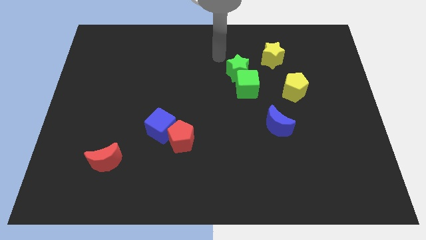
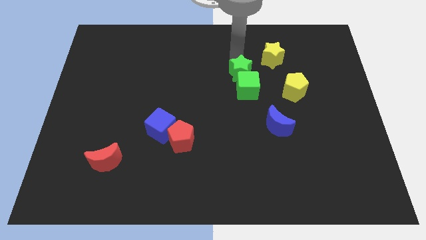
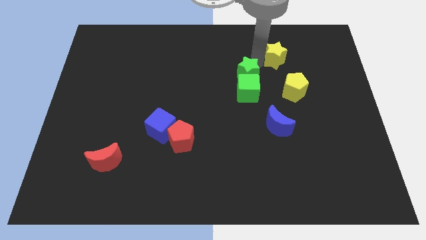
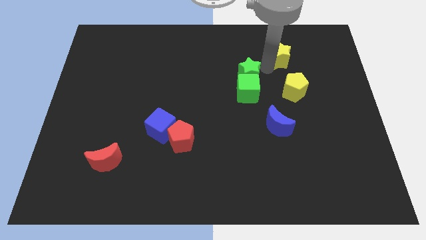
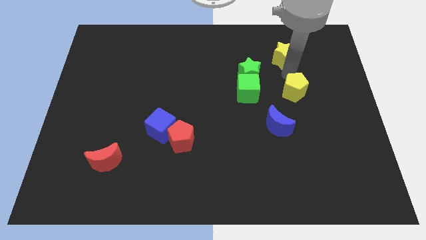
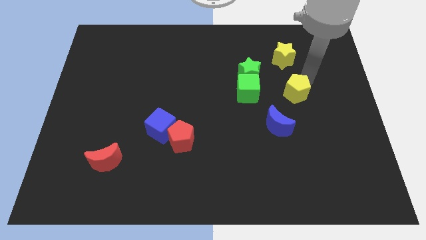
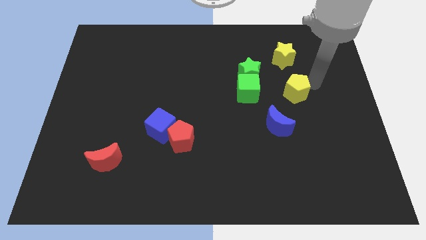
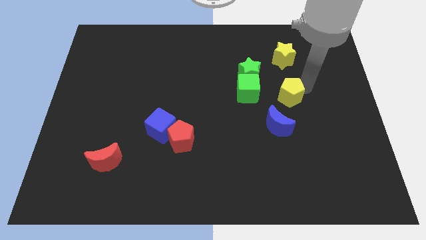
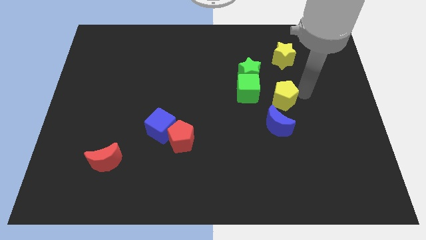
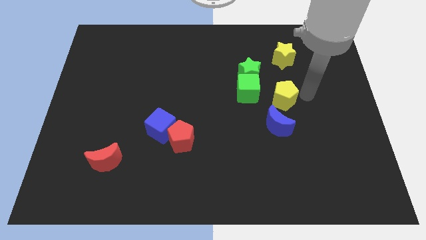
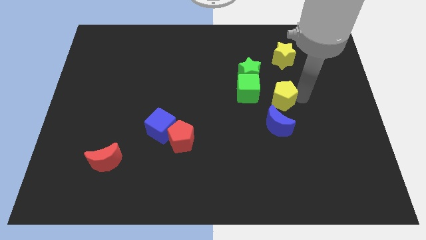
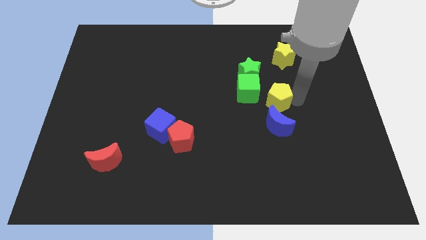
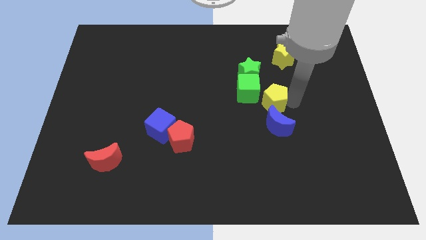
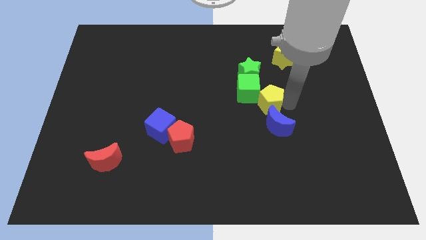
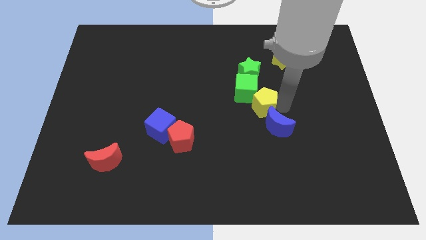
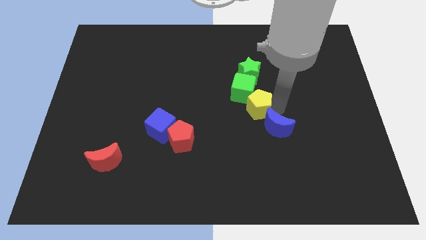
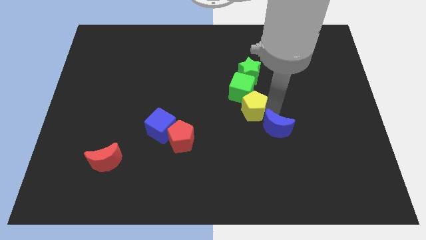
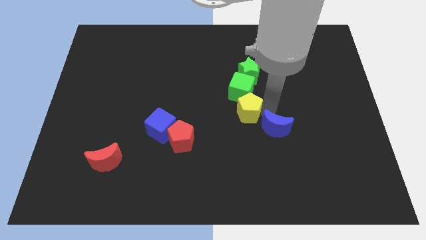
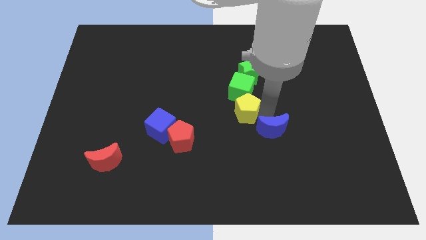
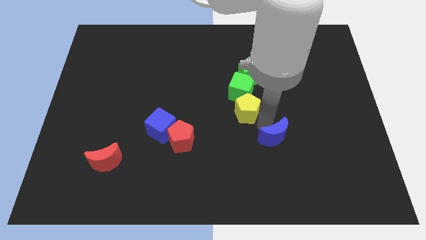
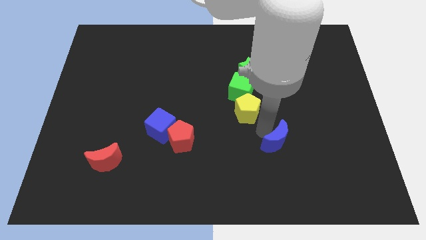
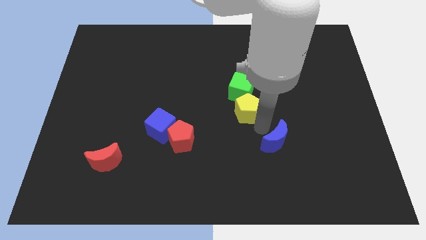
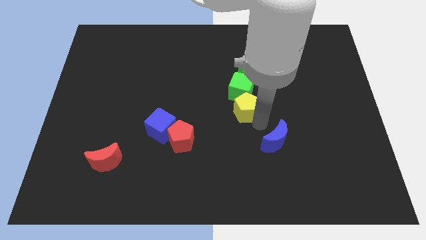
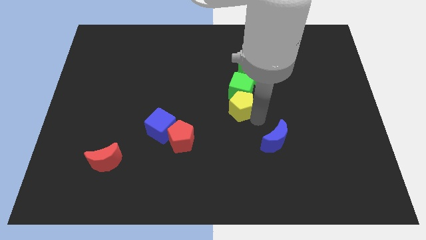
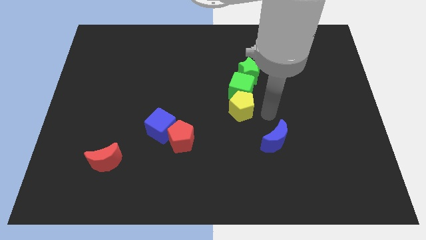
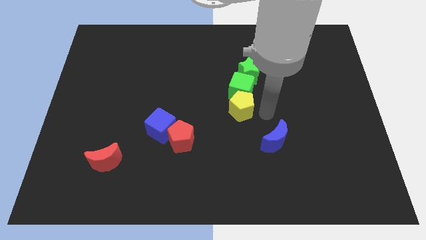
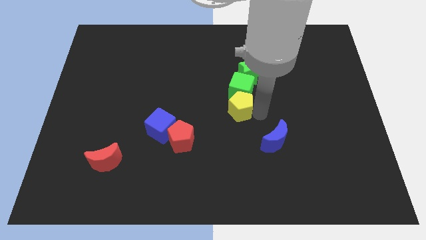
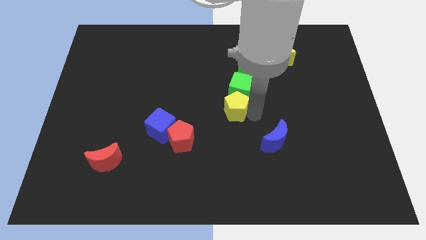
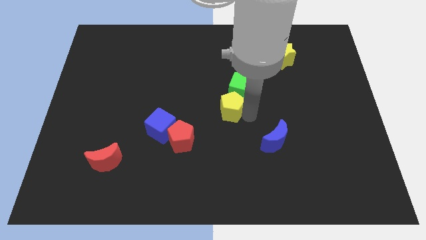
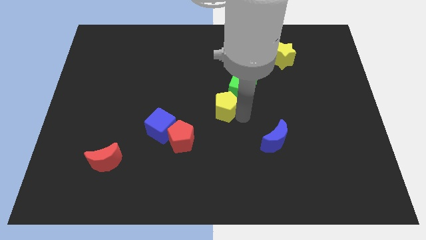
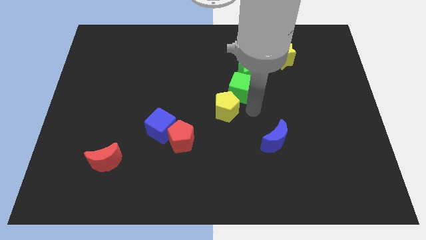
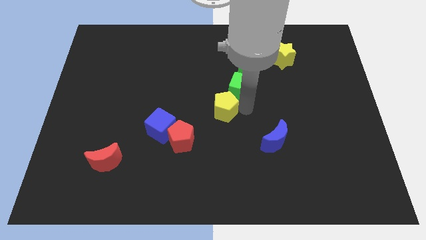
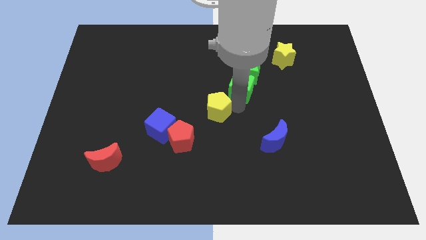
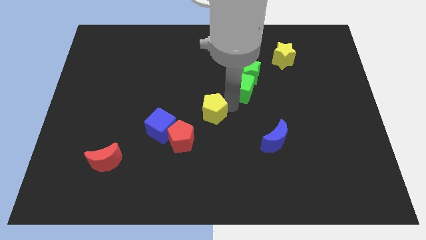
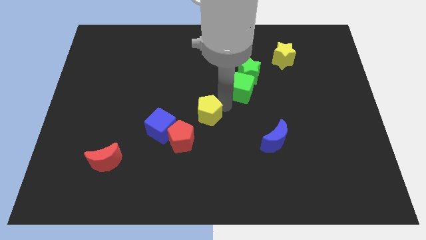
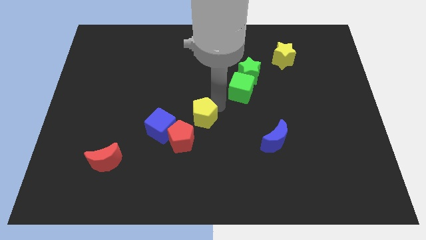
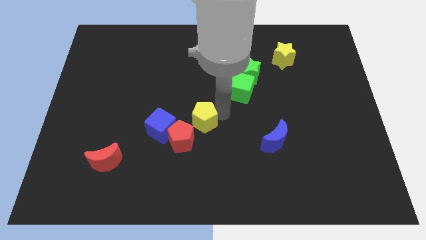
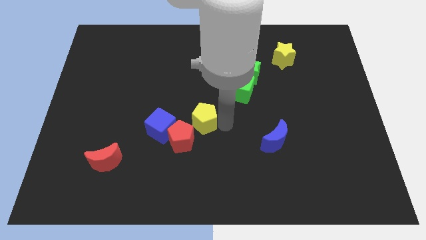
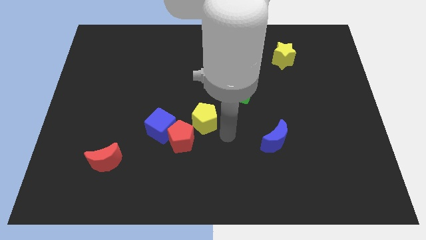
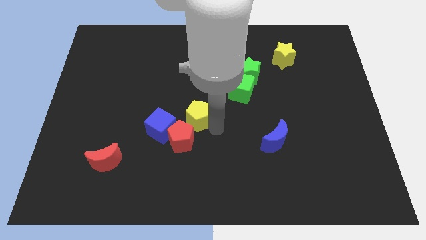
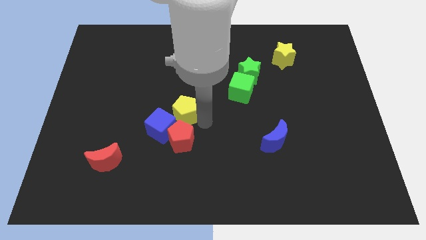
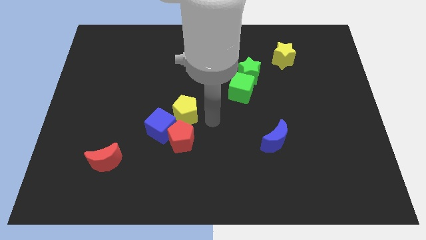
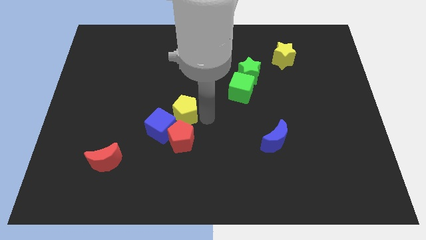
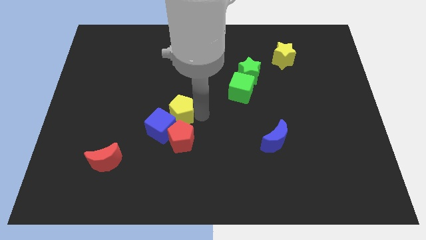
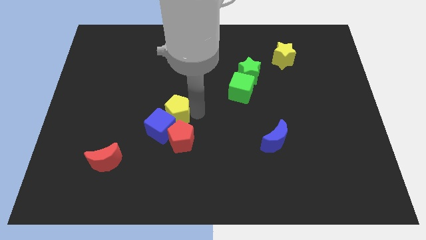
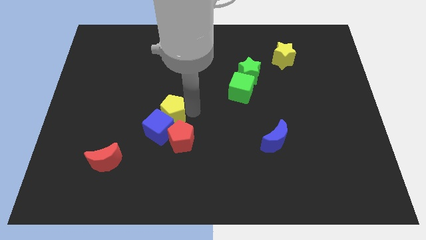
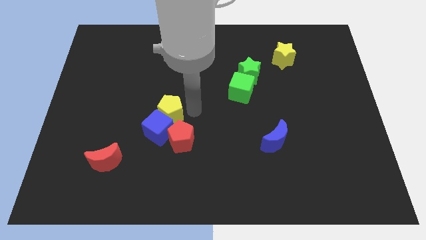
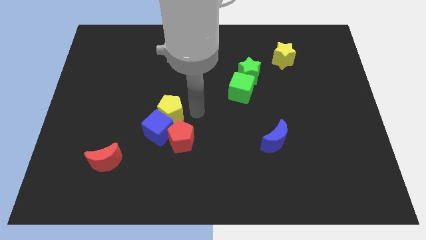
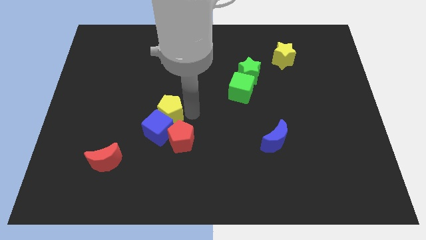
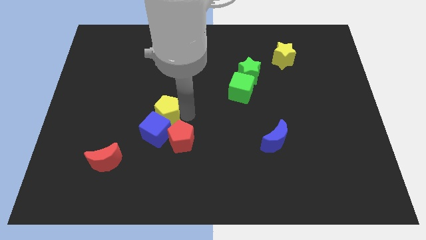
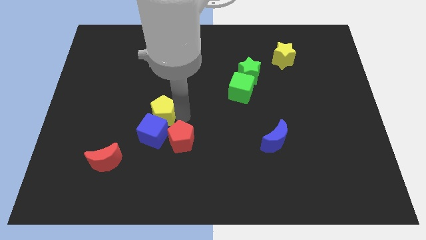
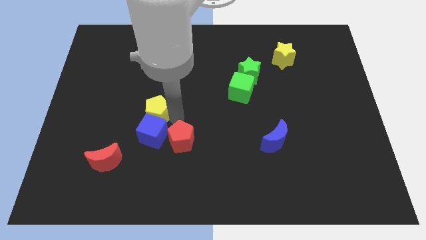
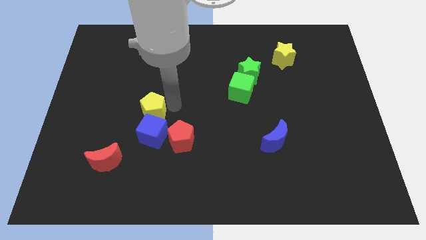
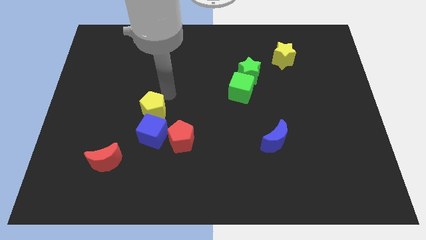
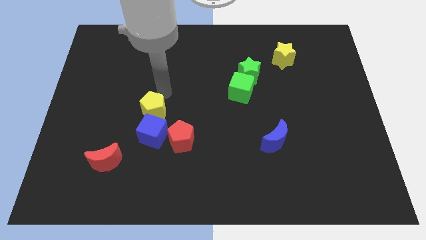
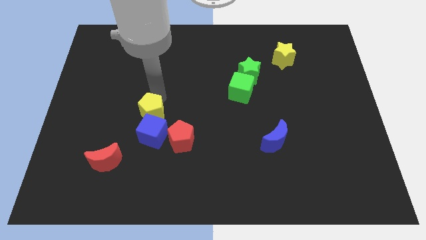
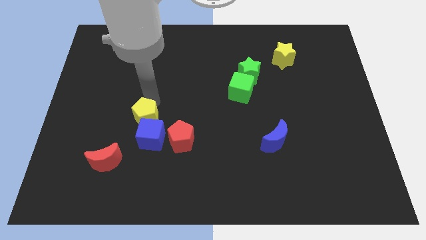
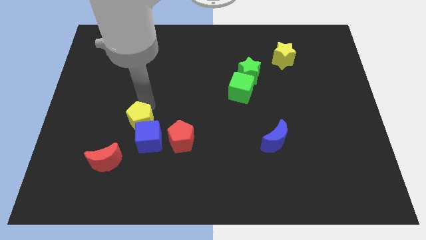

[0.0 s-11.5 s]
move the yellow pentagon to the top right side of the red moon

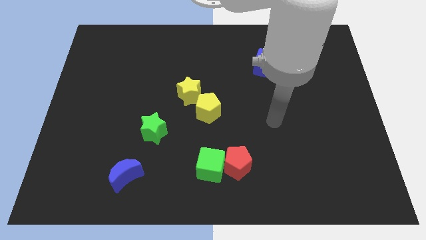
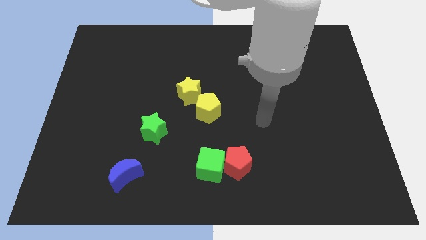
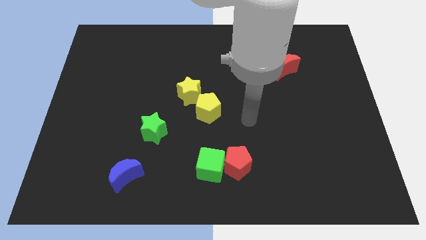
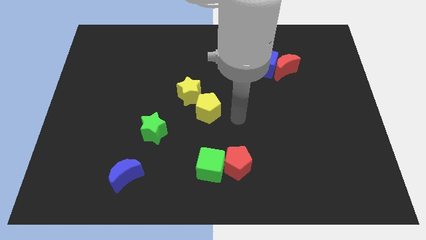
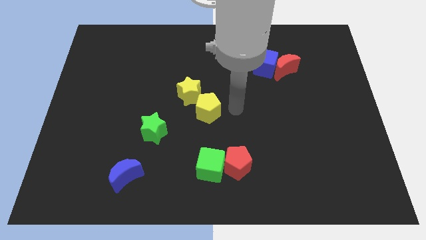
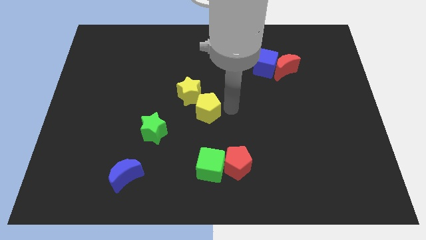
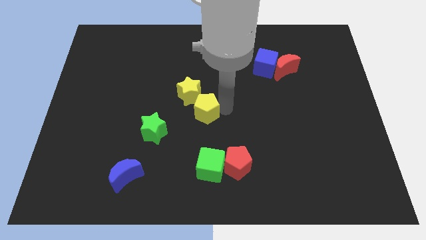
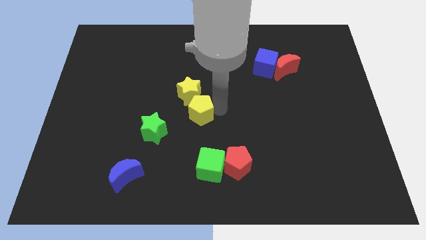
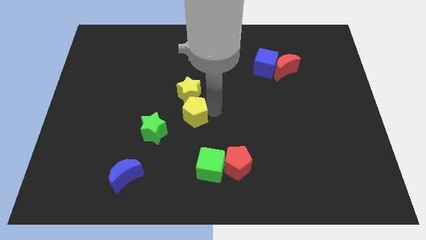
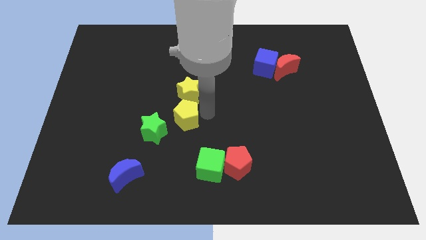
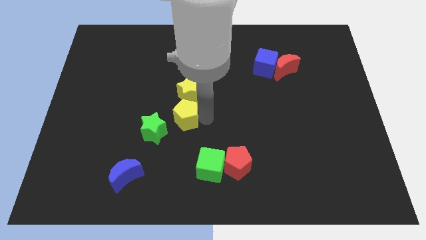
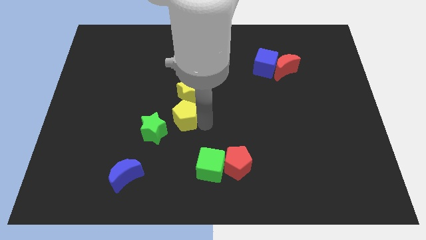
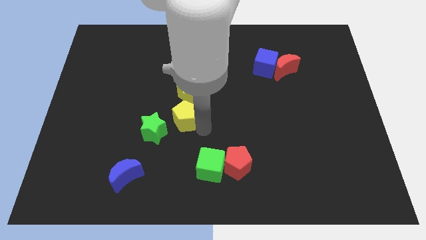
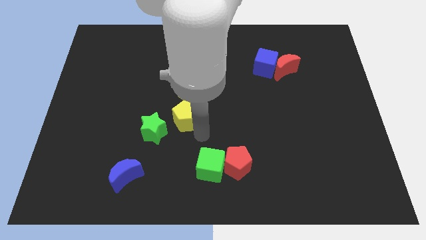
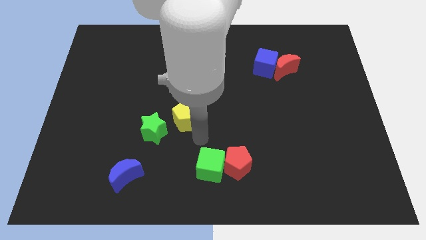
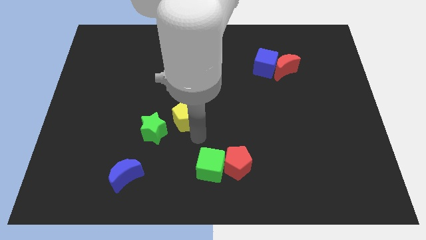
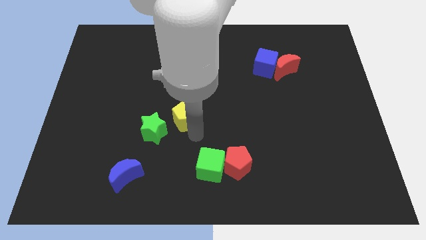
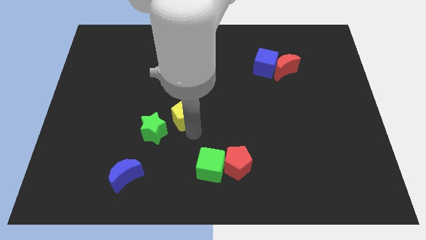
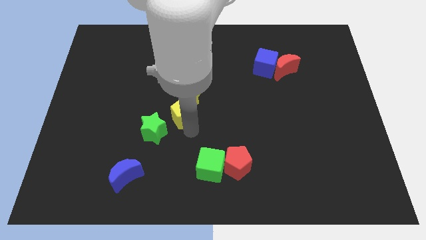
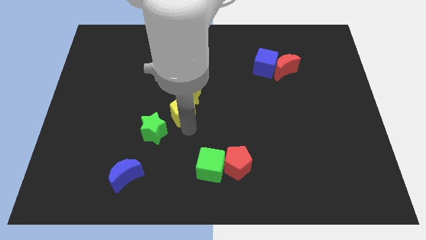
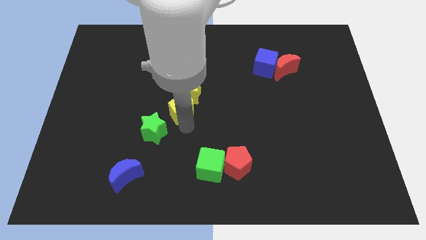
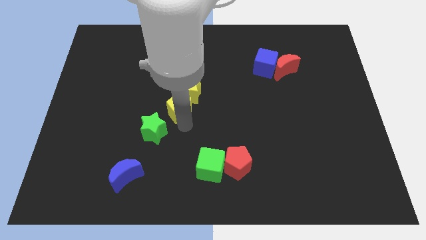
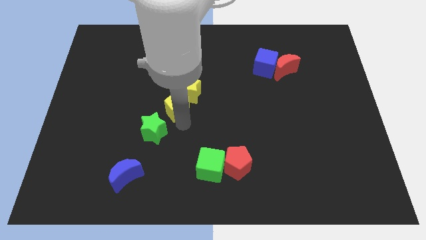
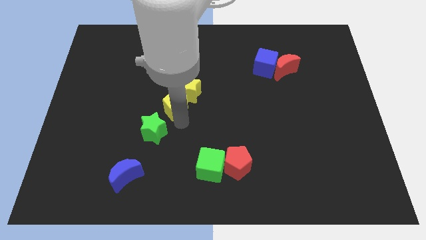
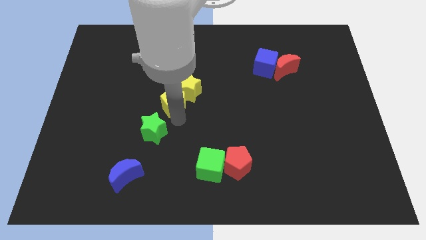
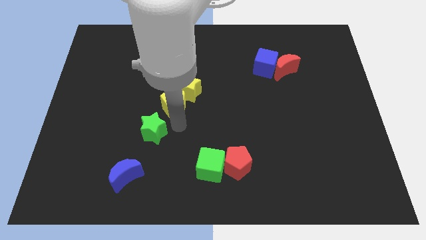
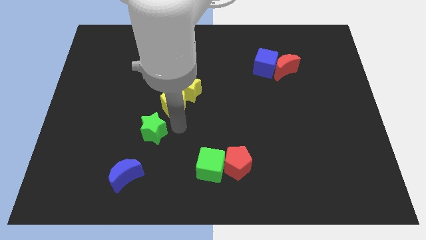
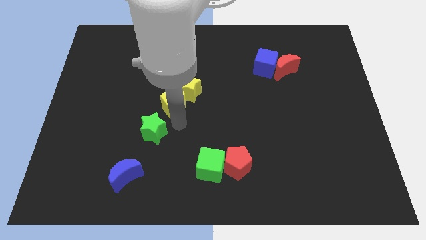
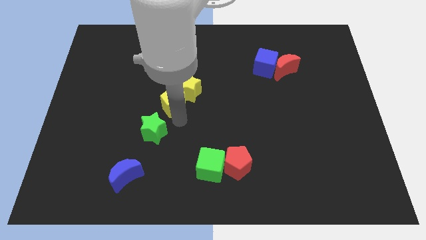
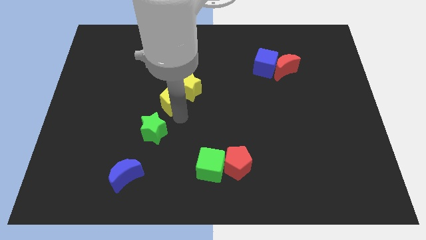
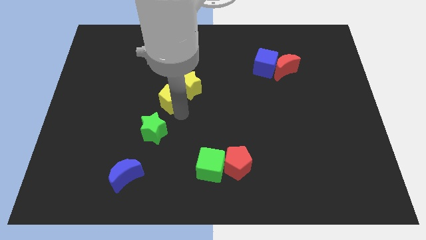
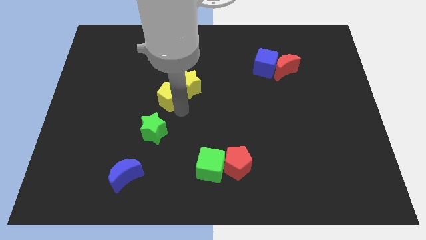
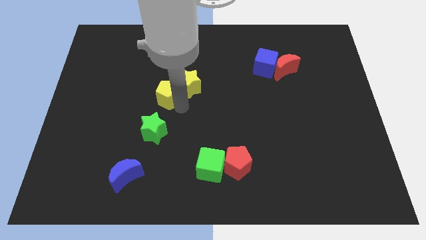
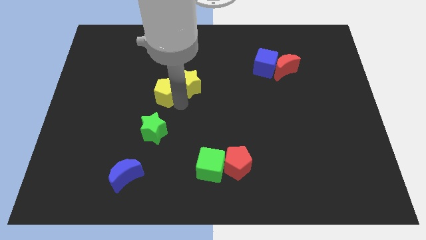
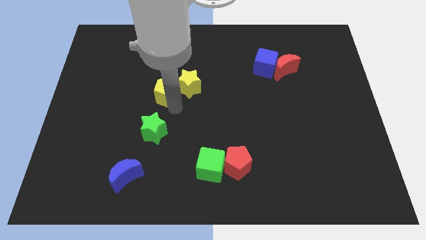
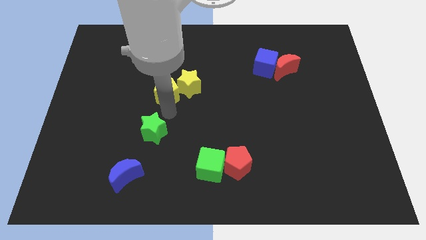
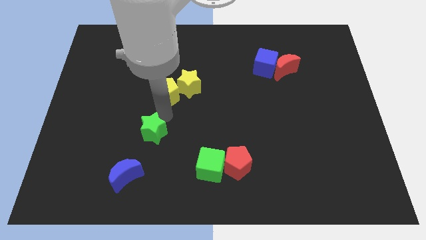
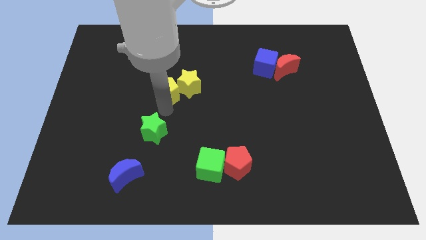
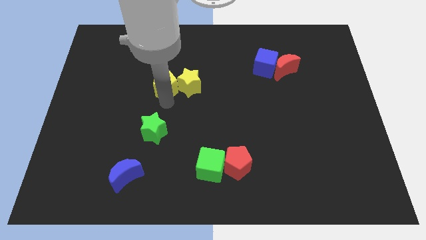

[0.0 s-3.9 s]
move the yellow pentagon diagonally up and to the left of the yellow star
